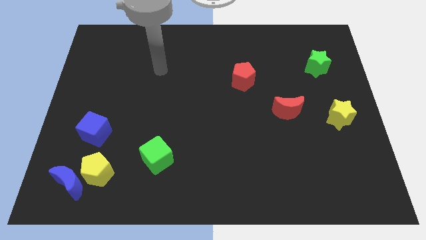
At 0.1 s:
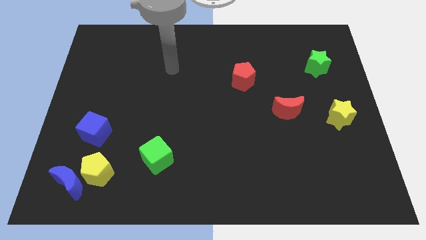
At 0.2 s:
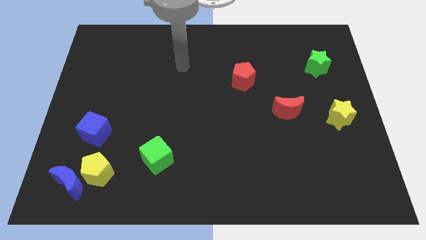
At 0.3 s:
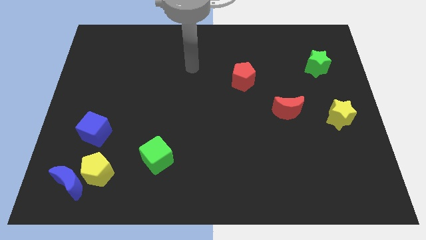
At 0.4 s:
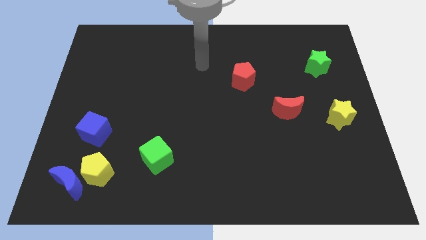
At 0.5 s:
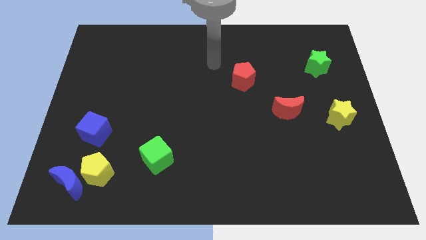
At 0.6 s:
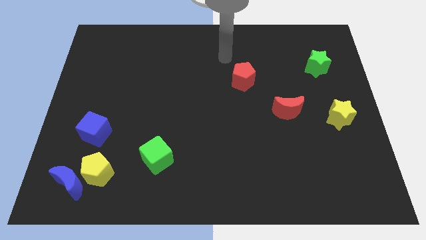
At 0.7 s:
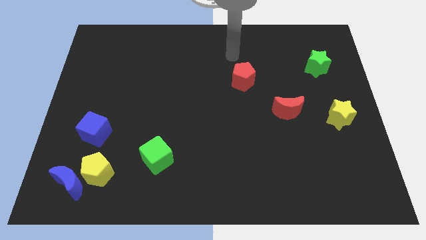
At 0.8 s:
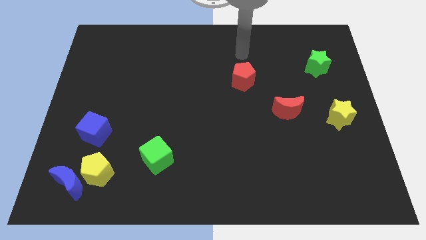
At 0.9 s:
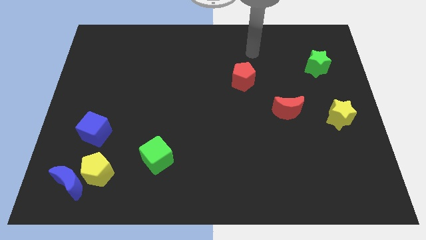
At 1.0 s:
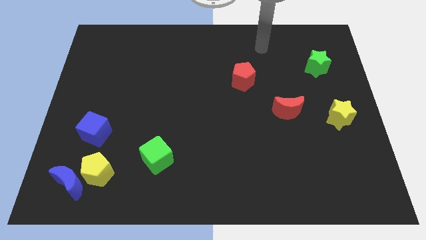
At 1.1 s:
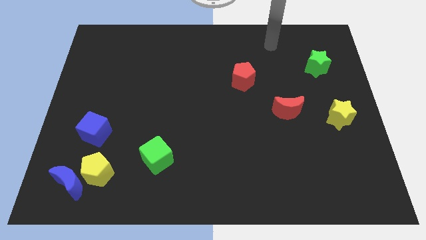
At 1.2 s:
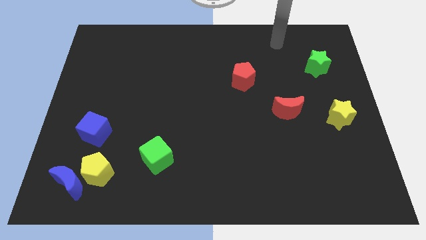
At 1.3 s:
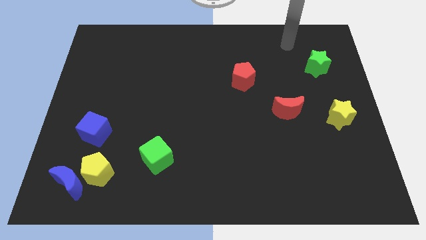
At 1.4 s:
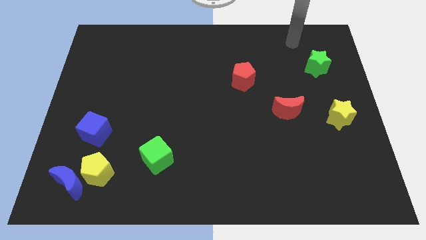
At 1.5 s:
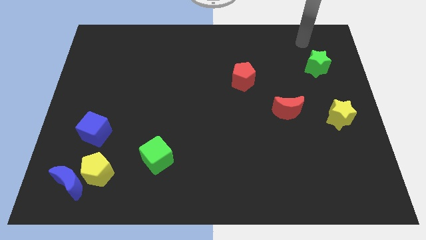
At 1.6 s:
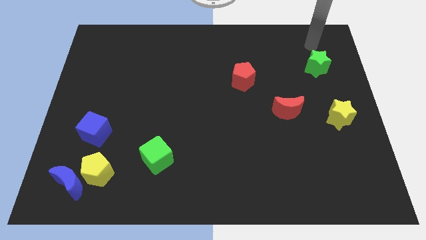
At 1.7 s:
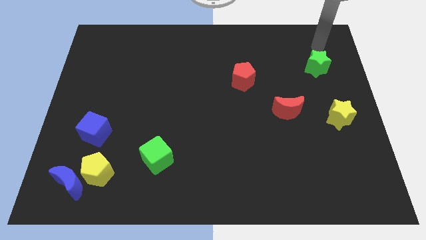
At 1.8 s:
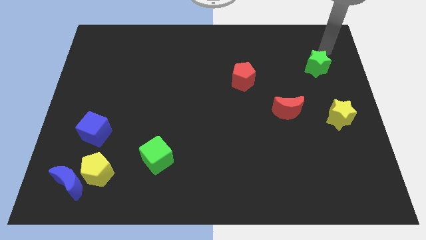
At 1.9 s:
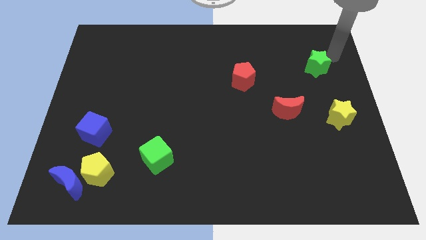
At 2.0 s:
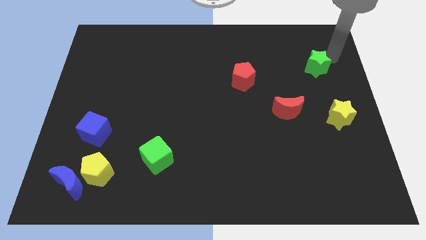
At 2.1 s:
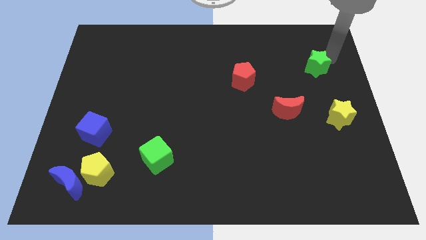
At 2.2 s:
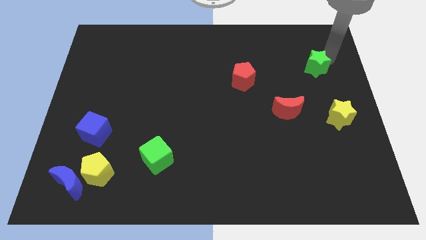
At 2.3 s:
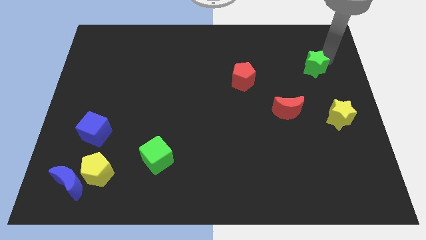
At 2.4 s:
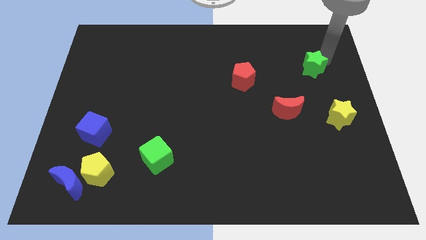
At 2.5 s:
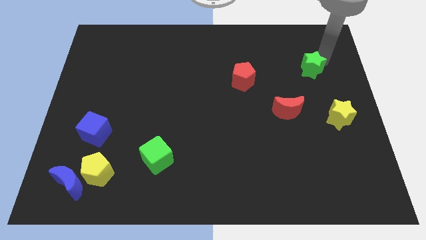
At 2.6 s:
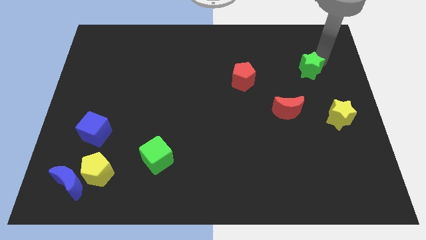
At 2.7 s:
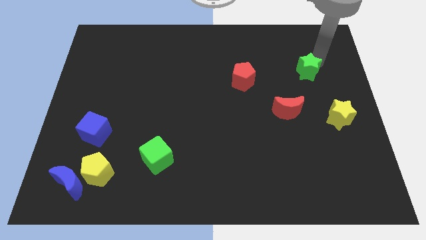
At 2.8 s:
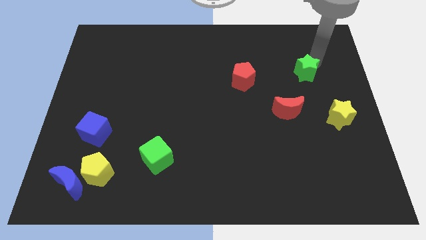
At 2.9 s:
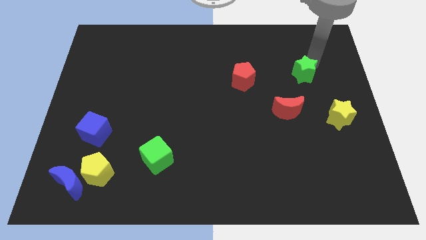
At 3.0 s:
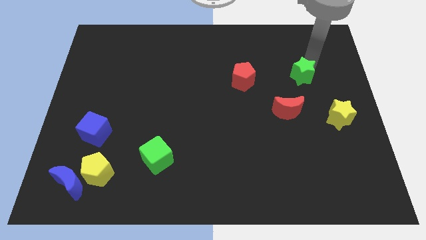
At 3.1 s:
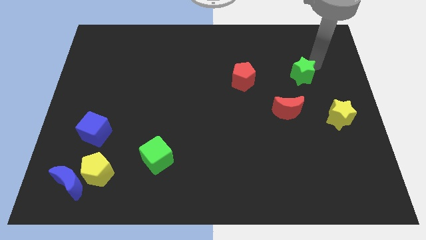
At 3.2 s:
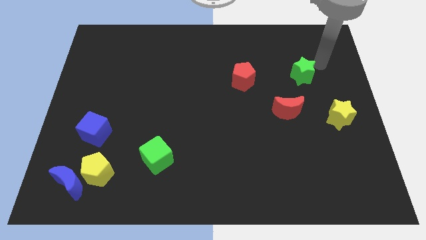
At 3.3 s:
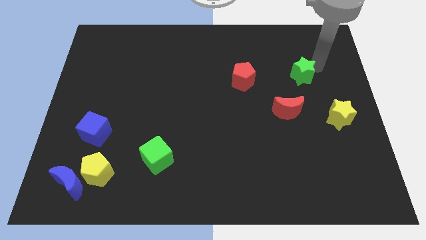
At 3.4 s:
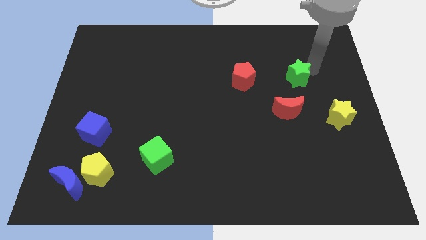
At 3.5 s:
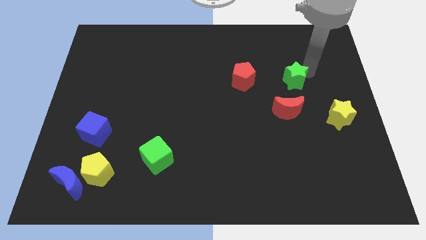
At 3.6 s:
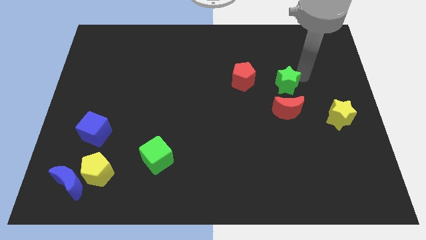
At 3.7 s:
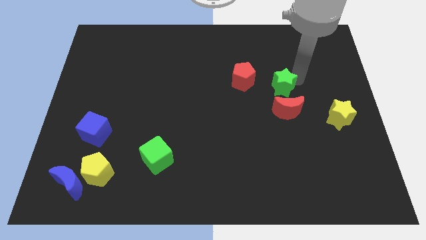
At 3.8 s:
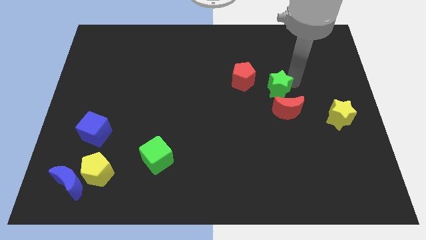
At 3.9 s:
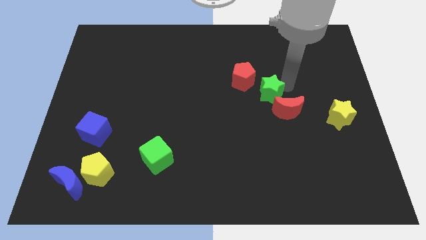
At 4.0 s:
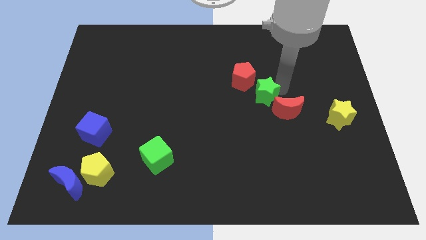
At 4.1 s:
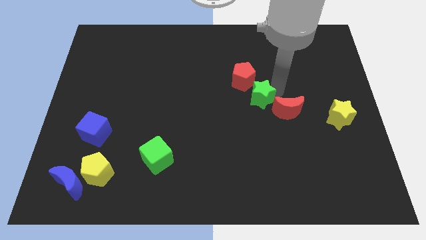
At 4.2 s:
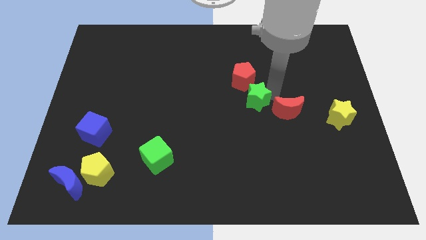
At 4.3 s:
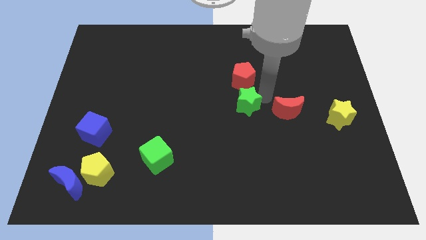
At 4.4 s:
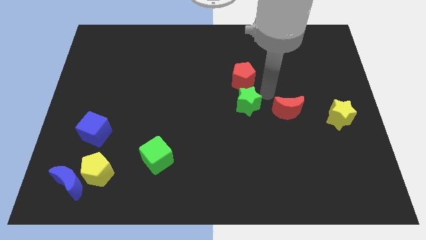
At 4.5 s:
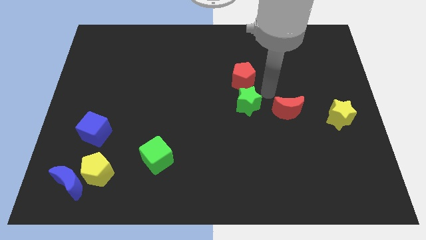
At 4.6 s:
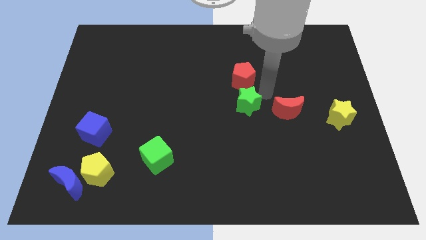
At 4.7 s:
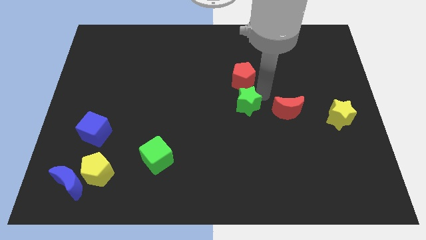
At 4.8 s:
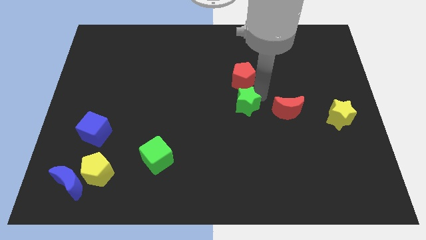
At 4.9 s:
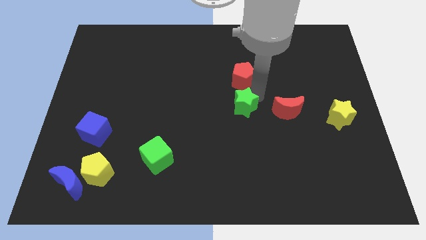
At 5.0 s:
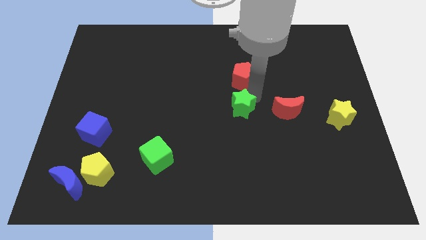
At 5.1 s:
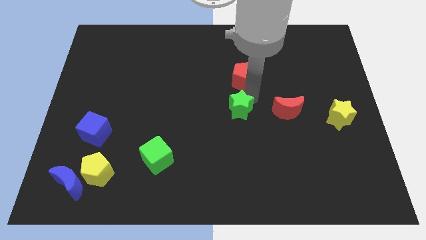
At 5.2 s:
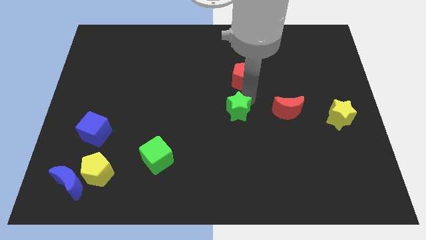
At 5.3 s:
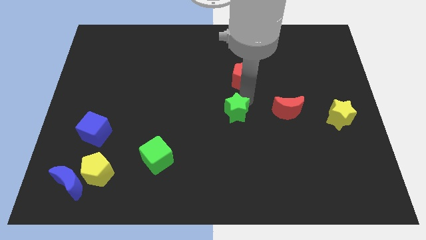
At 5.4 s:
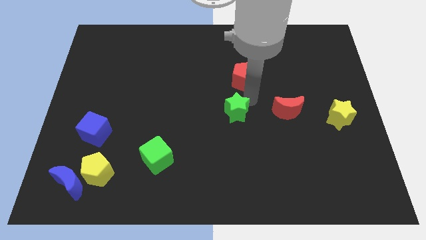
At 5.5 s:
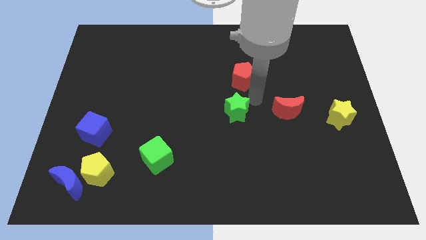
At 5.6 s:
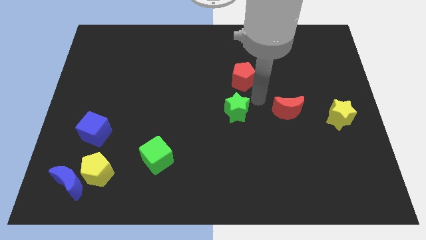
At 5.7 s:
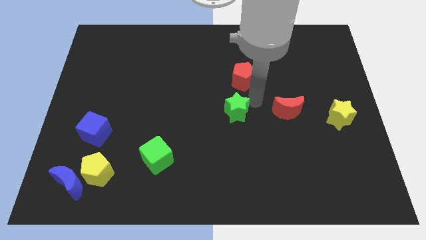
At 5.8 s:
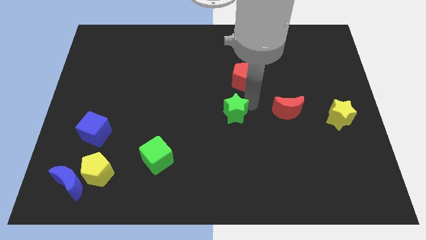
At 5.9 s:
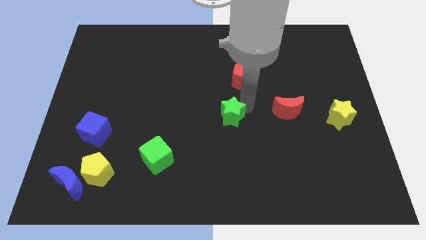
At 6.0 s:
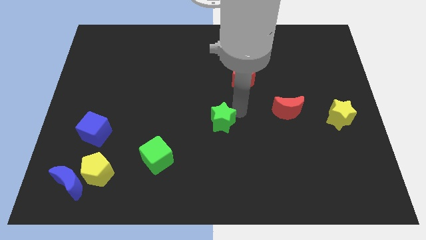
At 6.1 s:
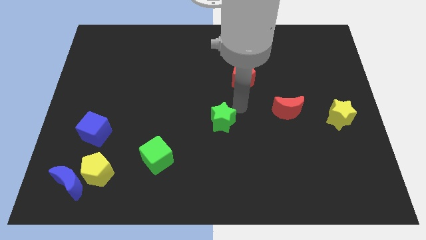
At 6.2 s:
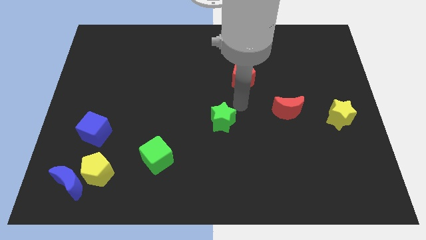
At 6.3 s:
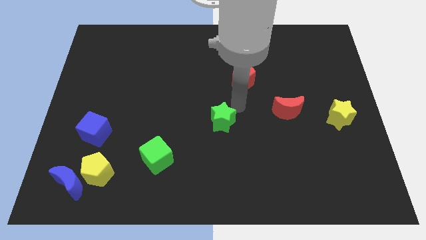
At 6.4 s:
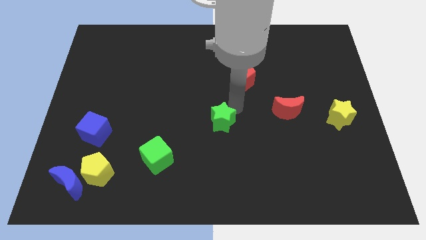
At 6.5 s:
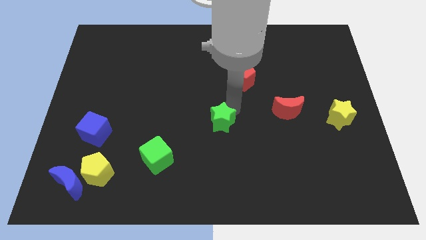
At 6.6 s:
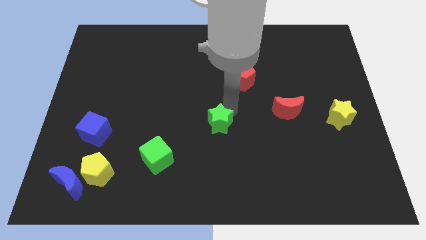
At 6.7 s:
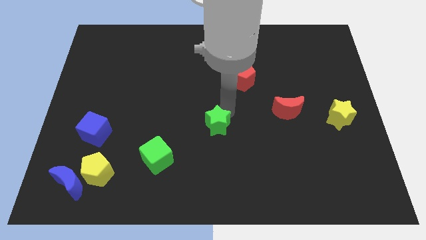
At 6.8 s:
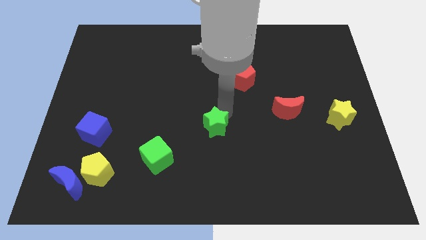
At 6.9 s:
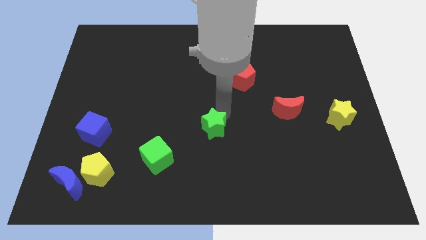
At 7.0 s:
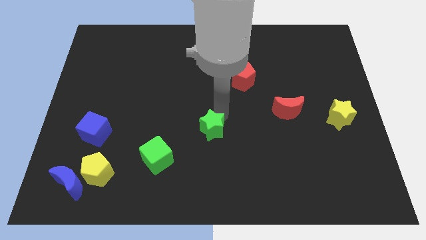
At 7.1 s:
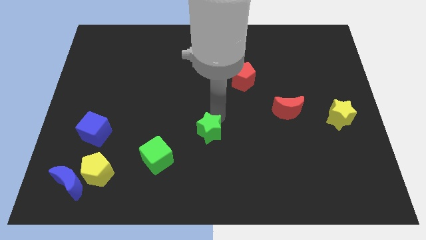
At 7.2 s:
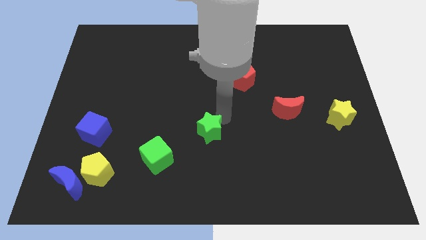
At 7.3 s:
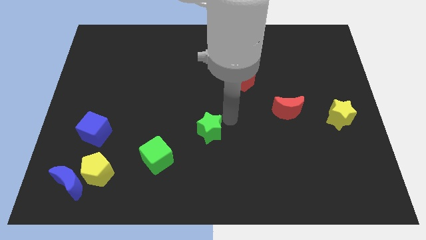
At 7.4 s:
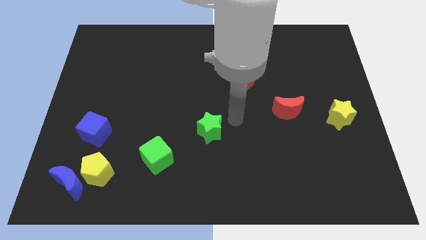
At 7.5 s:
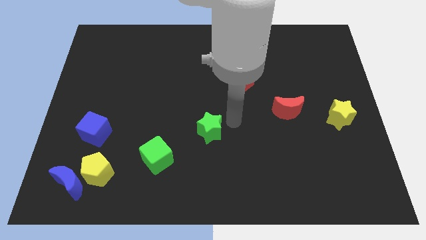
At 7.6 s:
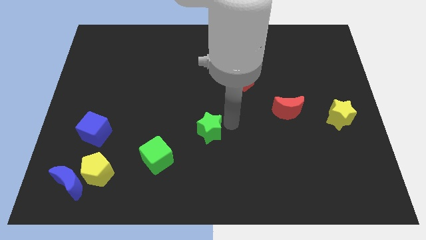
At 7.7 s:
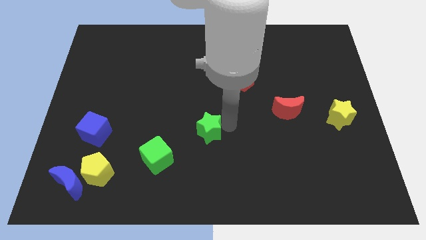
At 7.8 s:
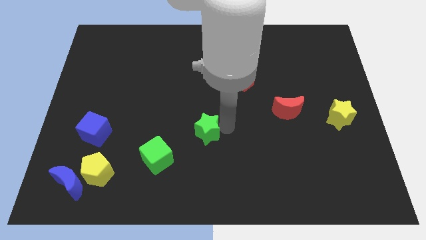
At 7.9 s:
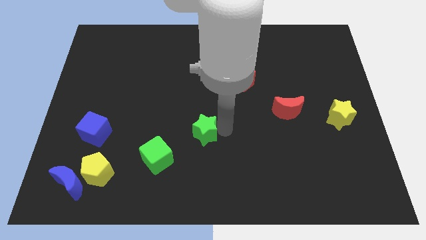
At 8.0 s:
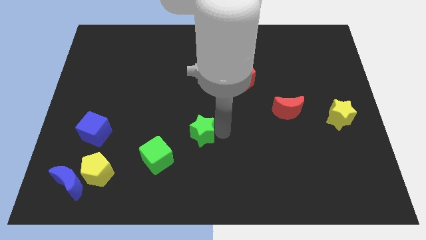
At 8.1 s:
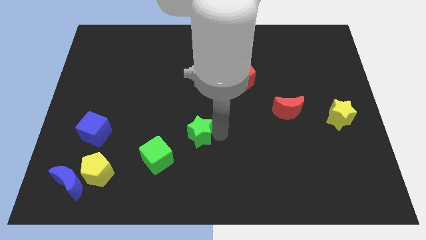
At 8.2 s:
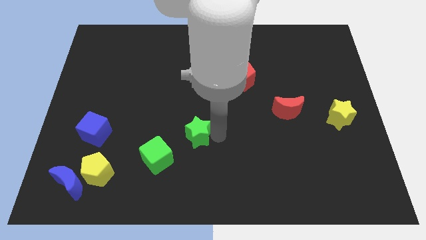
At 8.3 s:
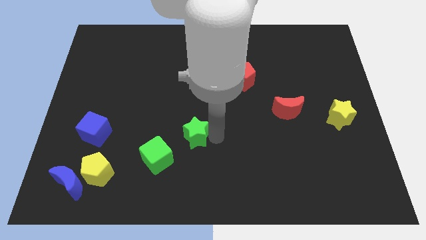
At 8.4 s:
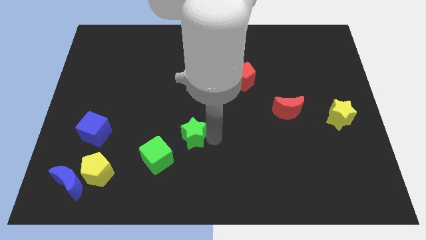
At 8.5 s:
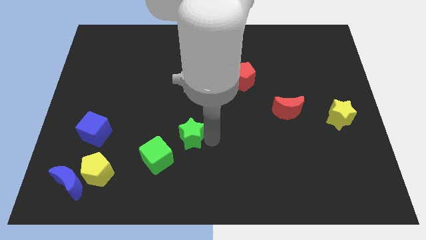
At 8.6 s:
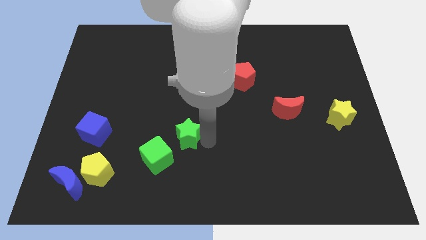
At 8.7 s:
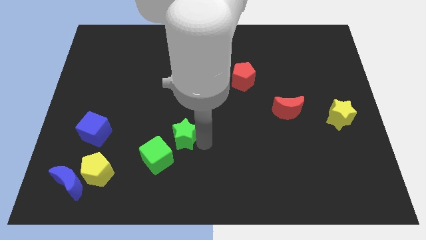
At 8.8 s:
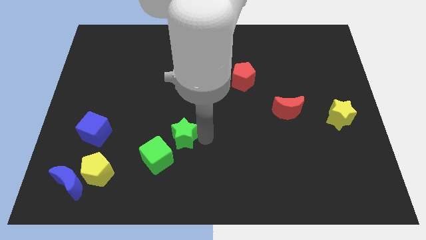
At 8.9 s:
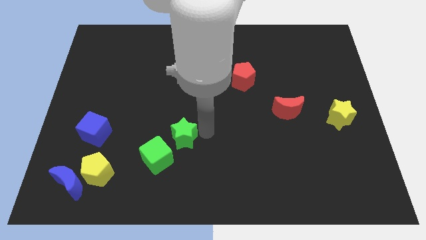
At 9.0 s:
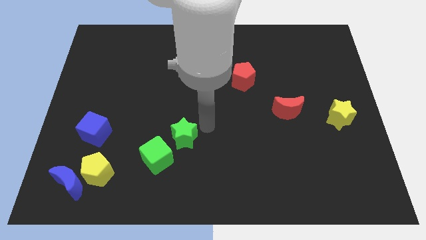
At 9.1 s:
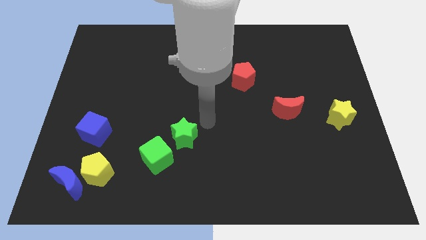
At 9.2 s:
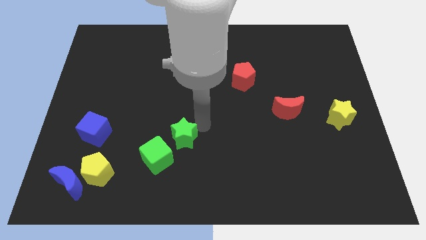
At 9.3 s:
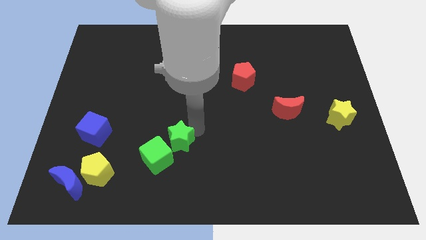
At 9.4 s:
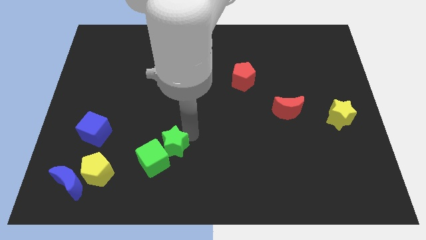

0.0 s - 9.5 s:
push the green star towards the green cube
